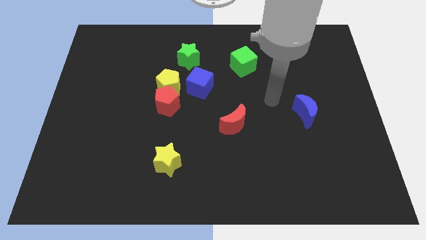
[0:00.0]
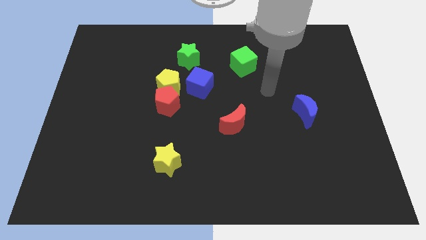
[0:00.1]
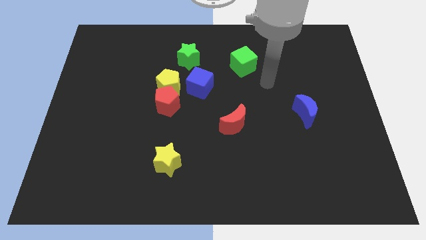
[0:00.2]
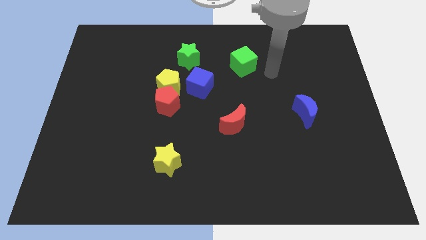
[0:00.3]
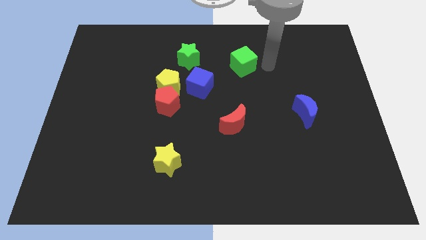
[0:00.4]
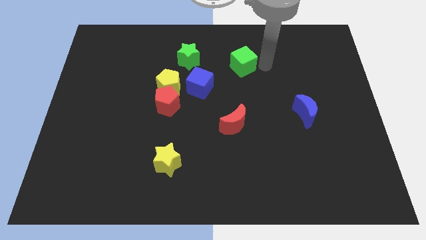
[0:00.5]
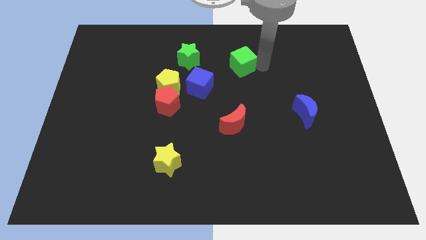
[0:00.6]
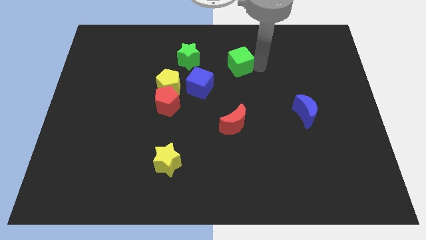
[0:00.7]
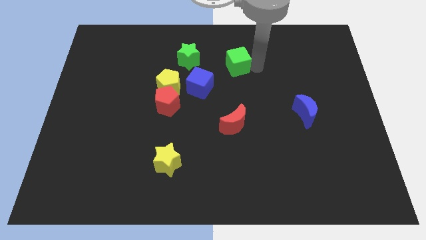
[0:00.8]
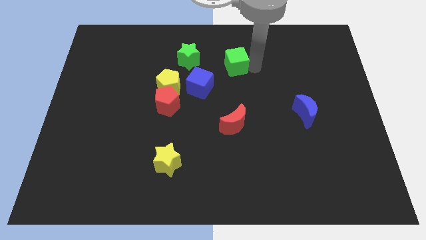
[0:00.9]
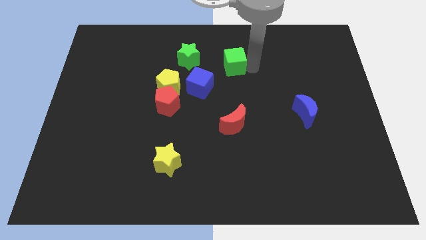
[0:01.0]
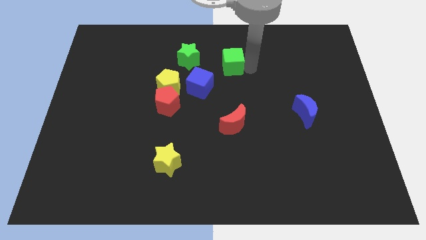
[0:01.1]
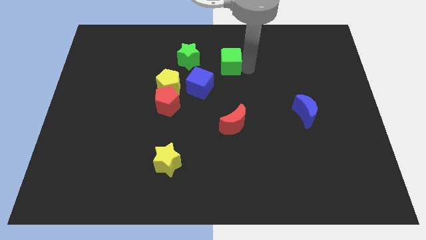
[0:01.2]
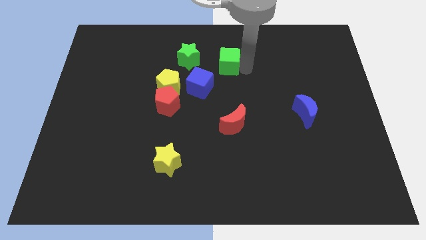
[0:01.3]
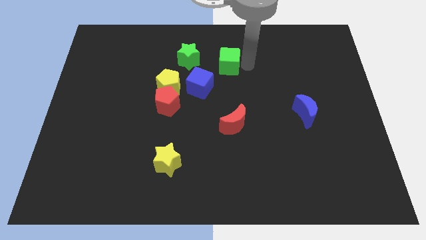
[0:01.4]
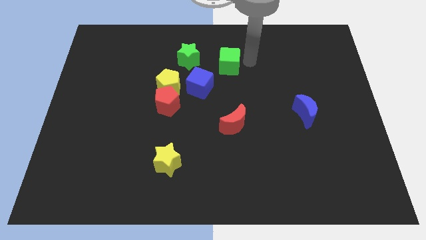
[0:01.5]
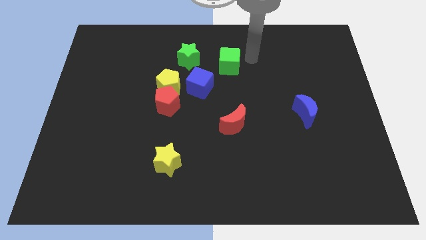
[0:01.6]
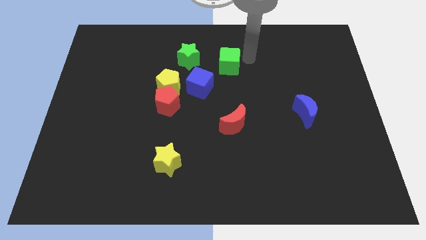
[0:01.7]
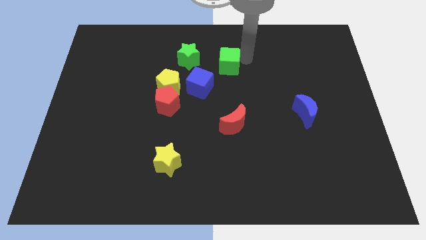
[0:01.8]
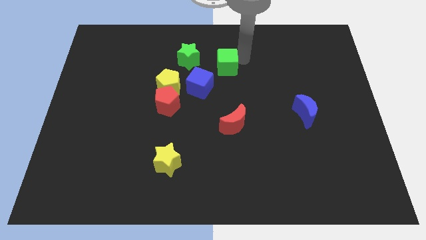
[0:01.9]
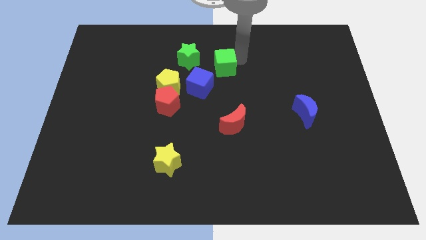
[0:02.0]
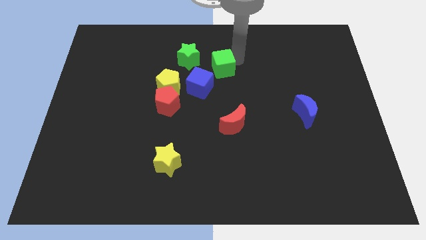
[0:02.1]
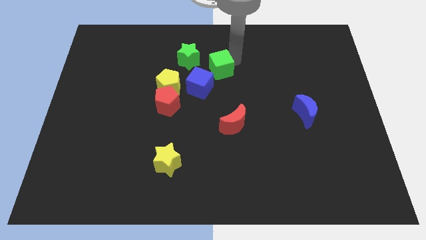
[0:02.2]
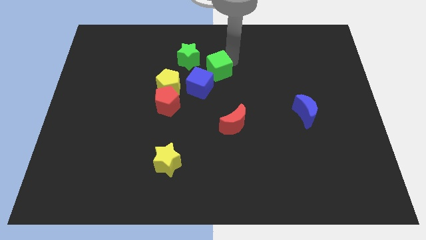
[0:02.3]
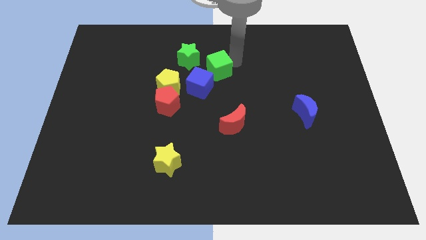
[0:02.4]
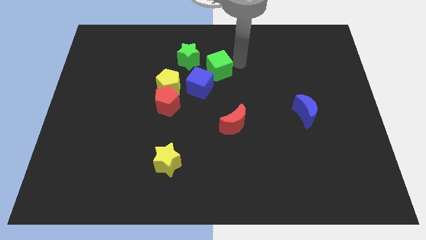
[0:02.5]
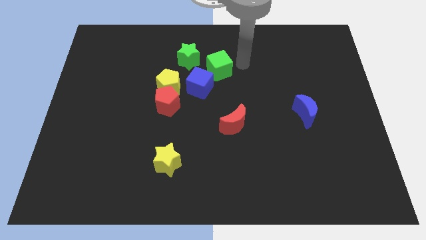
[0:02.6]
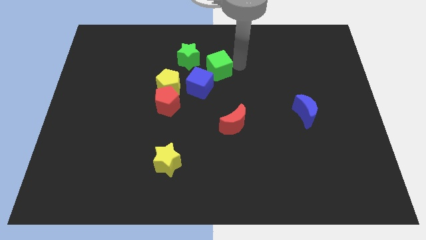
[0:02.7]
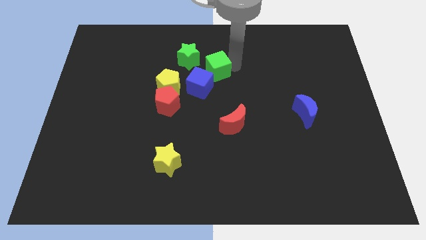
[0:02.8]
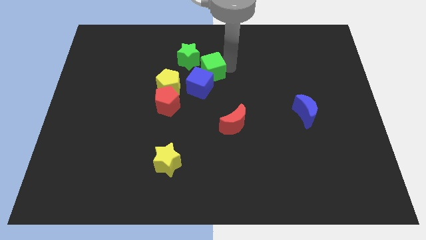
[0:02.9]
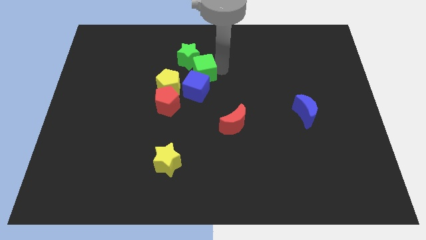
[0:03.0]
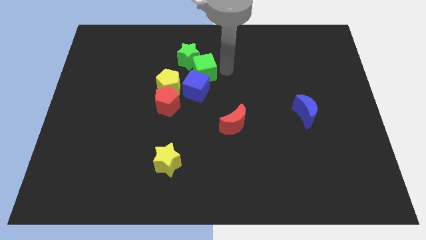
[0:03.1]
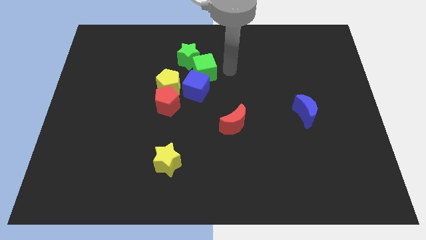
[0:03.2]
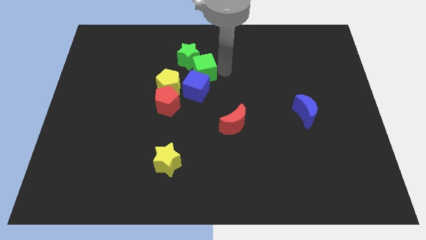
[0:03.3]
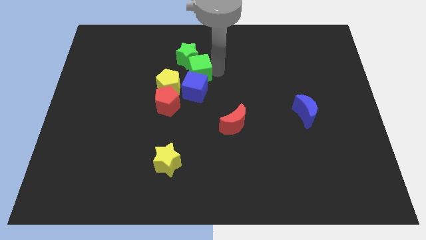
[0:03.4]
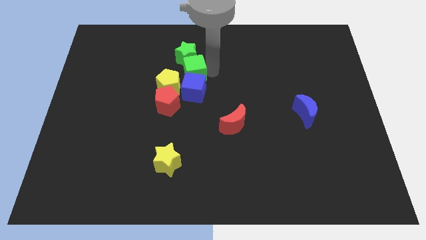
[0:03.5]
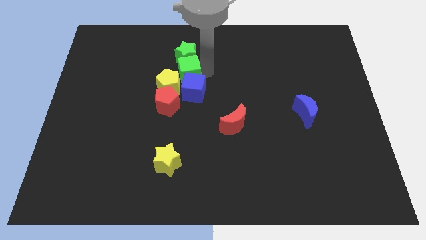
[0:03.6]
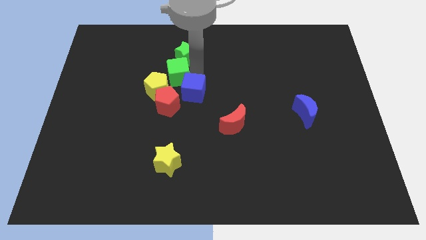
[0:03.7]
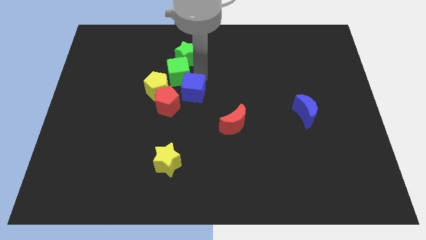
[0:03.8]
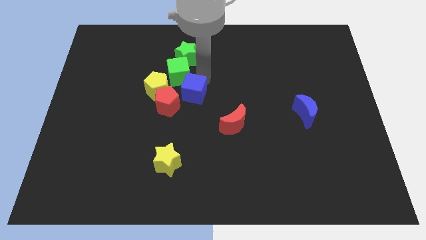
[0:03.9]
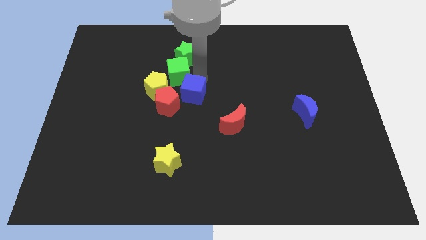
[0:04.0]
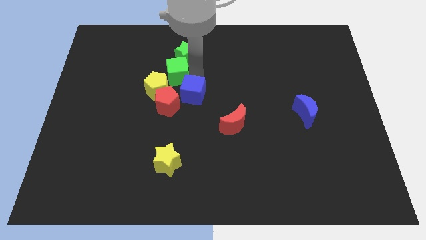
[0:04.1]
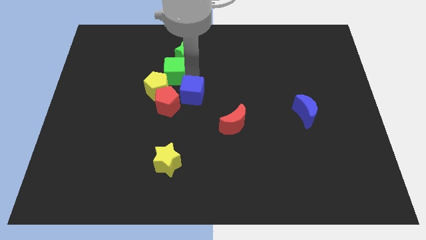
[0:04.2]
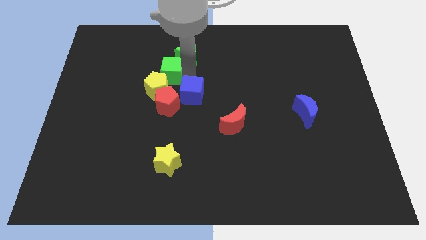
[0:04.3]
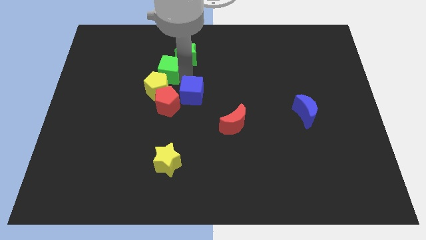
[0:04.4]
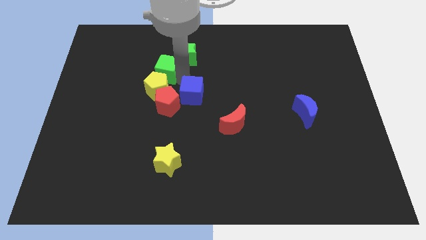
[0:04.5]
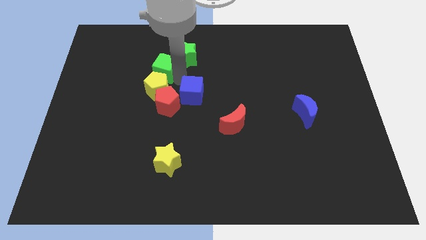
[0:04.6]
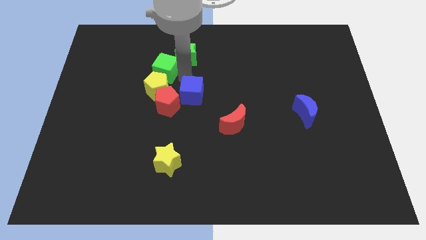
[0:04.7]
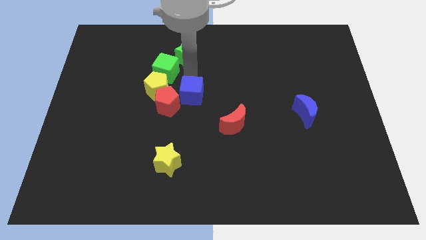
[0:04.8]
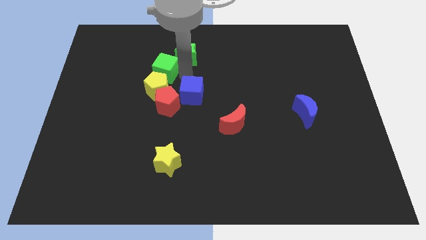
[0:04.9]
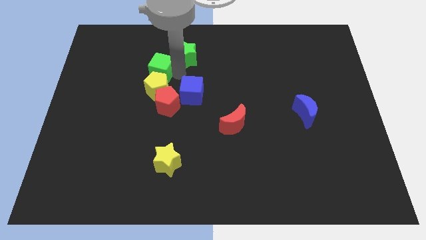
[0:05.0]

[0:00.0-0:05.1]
slide the green cube left

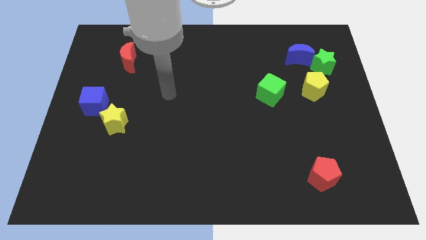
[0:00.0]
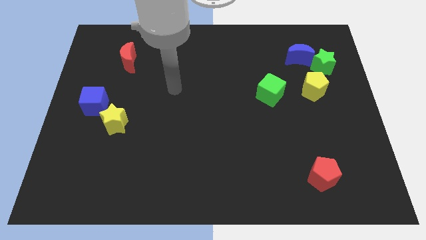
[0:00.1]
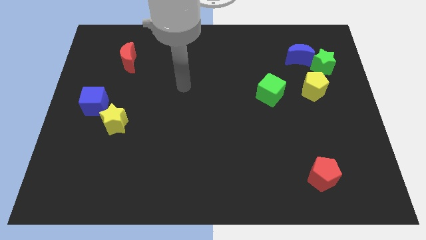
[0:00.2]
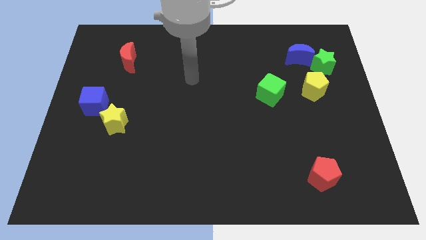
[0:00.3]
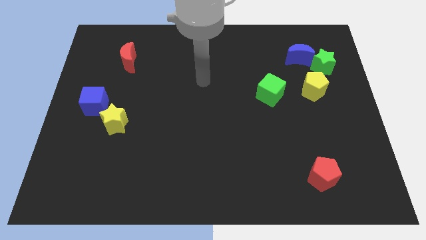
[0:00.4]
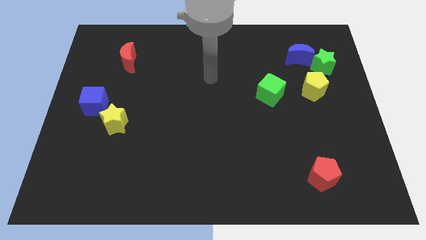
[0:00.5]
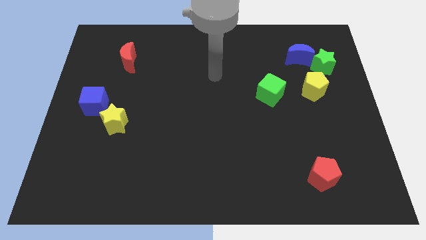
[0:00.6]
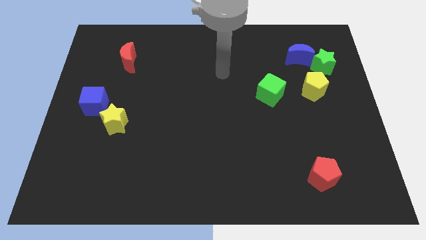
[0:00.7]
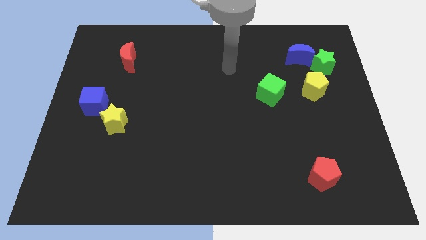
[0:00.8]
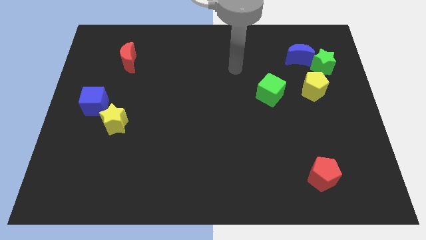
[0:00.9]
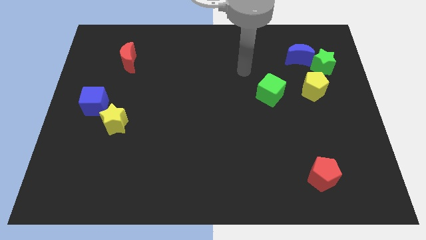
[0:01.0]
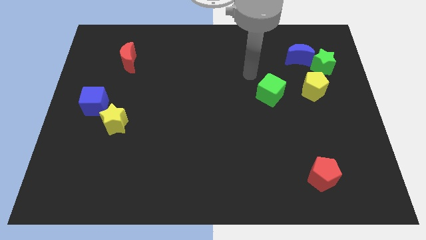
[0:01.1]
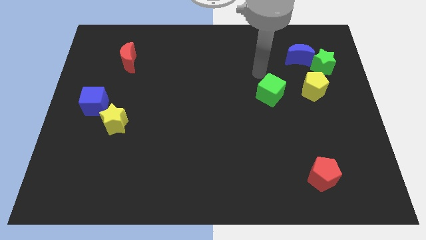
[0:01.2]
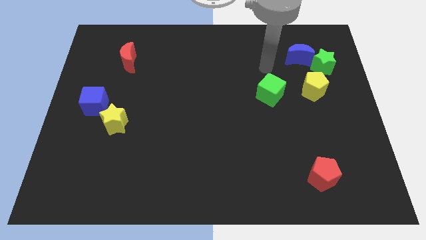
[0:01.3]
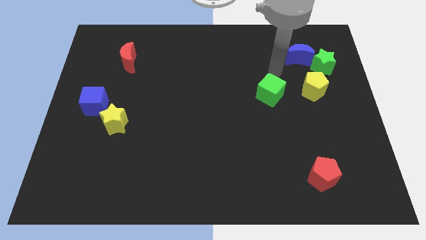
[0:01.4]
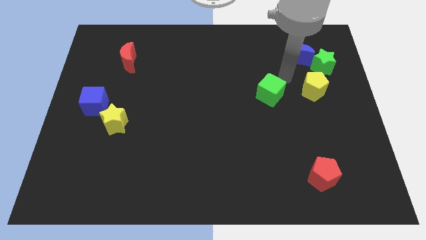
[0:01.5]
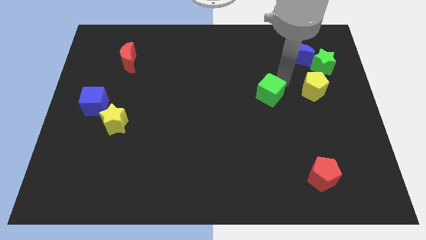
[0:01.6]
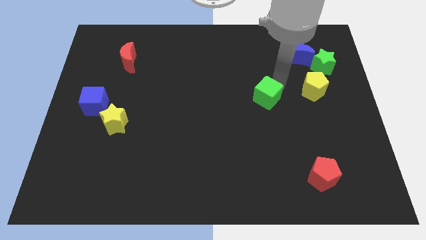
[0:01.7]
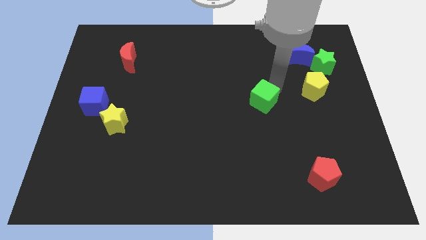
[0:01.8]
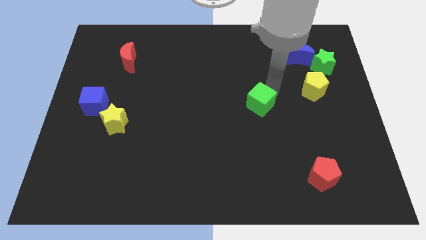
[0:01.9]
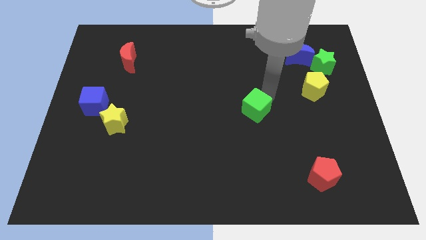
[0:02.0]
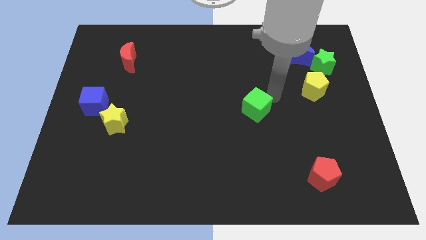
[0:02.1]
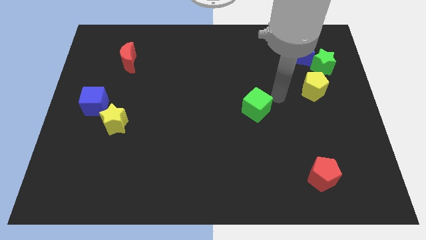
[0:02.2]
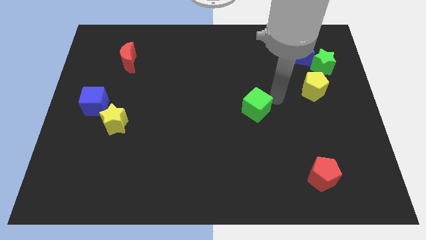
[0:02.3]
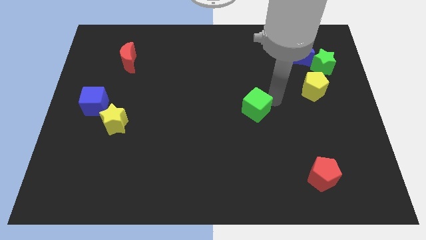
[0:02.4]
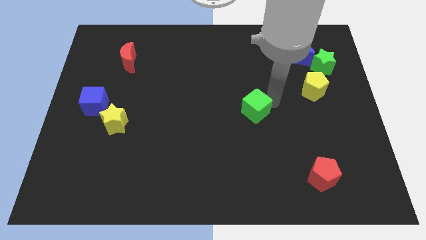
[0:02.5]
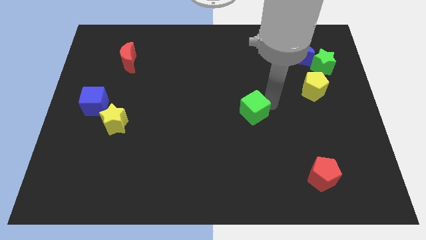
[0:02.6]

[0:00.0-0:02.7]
push the green cube slightly downwards and left diagonally
